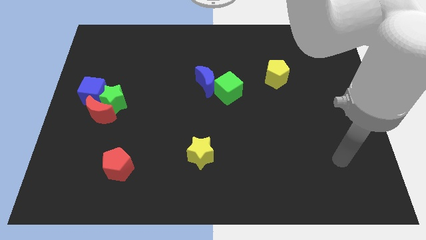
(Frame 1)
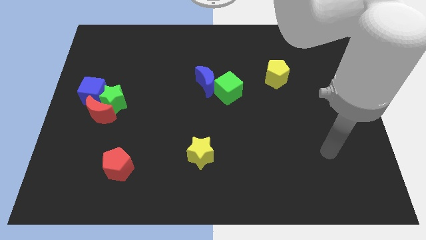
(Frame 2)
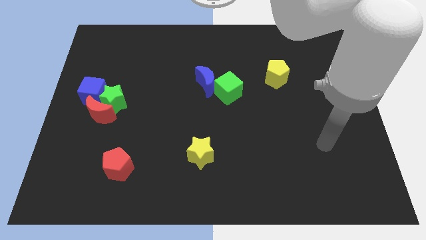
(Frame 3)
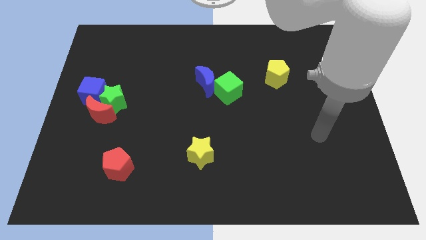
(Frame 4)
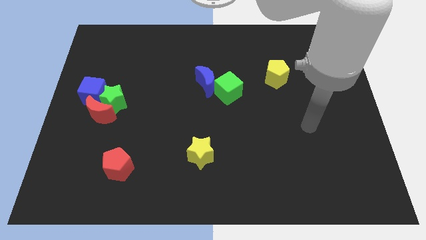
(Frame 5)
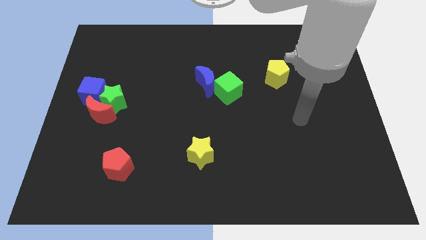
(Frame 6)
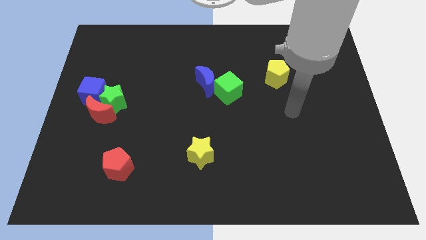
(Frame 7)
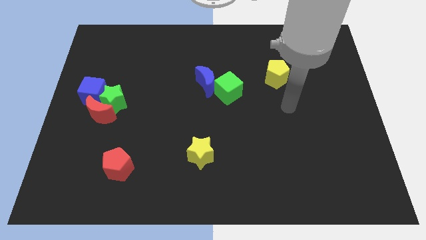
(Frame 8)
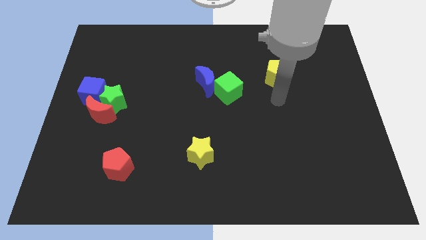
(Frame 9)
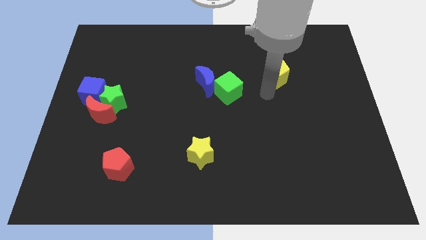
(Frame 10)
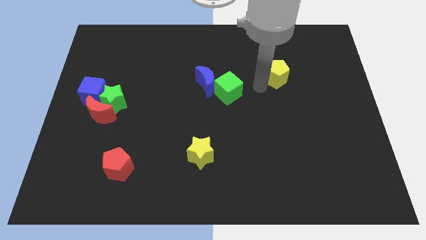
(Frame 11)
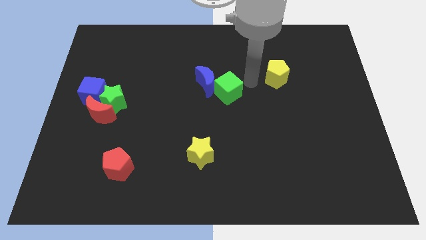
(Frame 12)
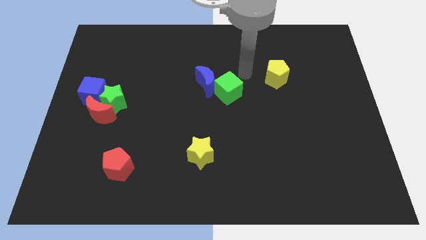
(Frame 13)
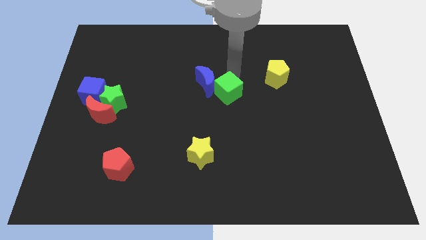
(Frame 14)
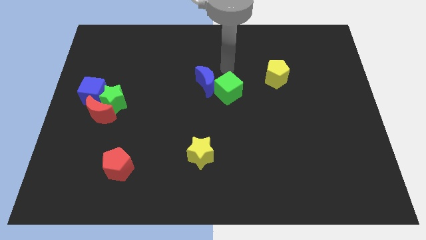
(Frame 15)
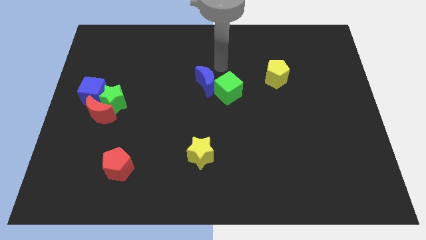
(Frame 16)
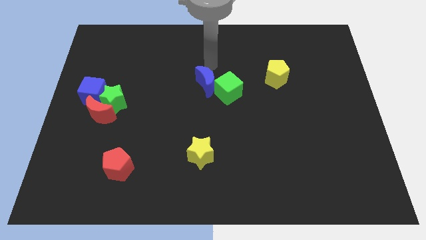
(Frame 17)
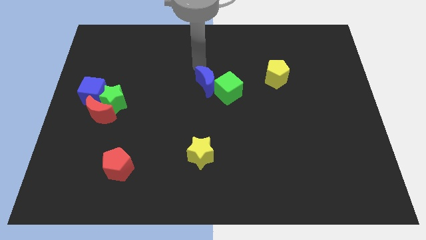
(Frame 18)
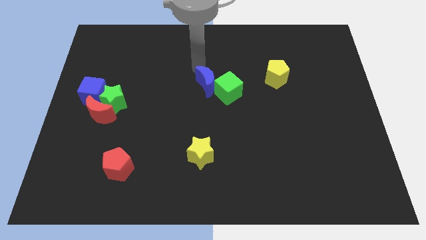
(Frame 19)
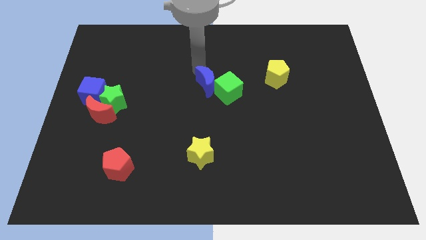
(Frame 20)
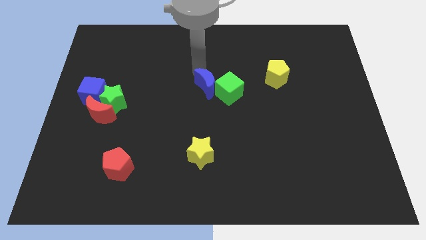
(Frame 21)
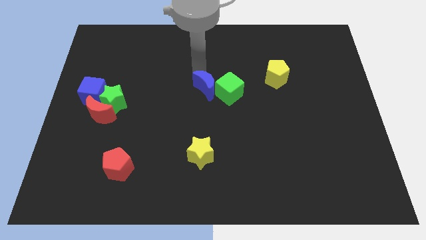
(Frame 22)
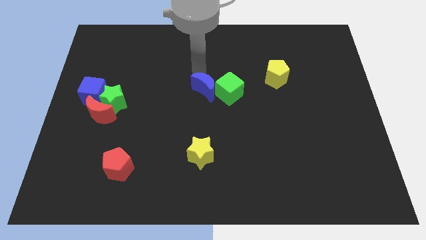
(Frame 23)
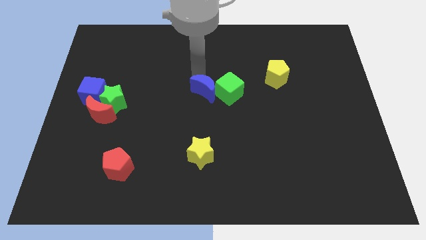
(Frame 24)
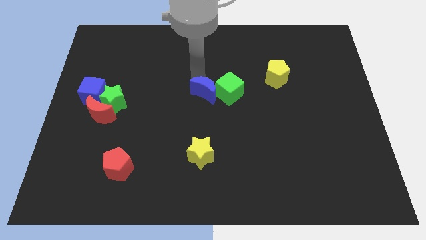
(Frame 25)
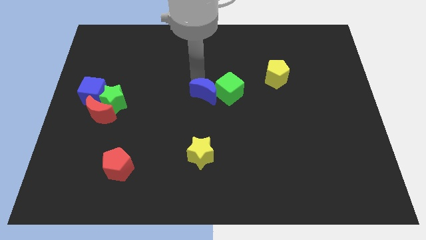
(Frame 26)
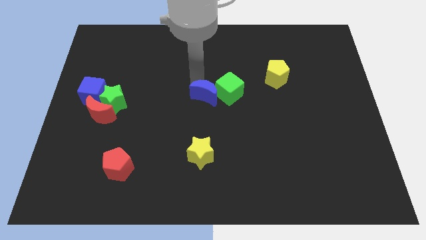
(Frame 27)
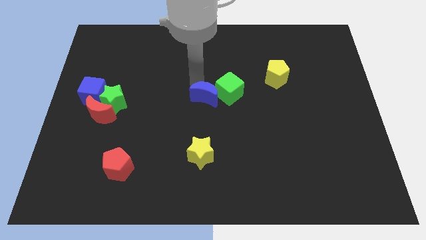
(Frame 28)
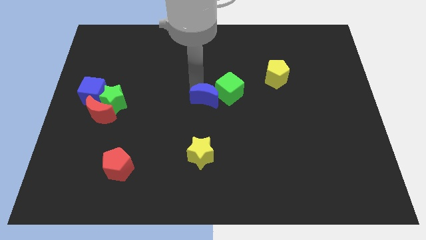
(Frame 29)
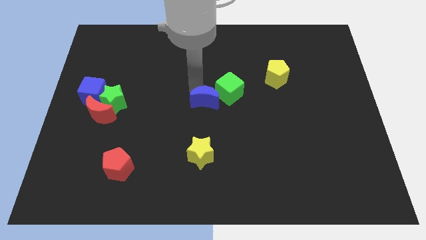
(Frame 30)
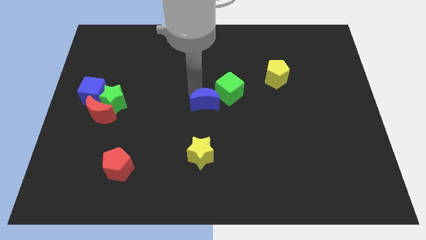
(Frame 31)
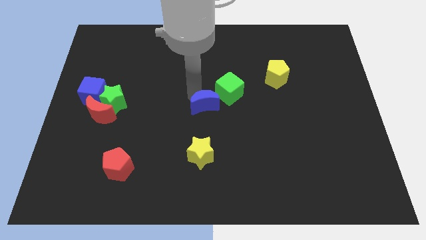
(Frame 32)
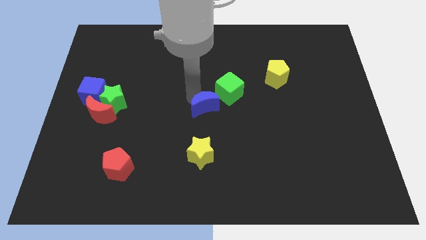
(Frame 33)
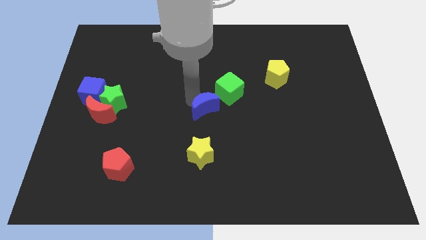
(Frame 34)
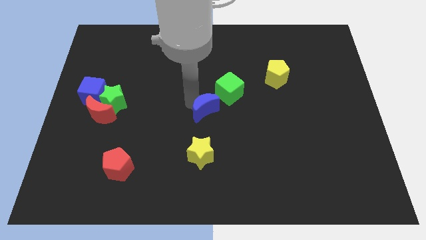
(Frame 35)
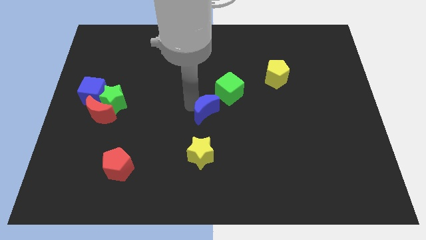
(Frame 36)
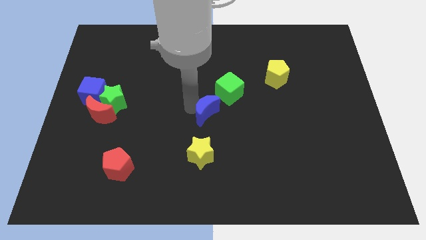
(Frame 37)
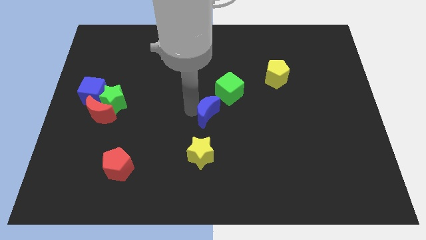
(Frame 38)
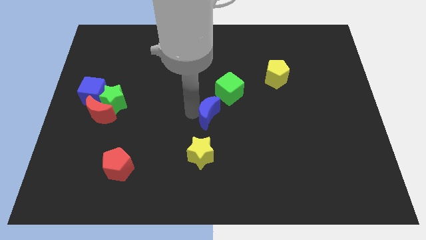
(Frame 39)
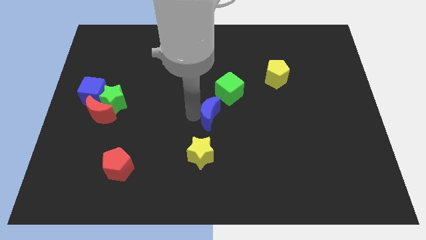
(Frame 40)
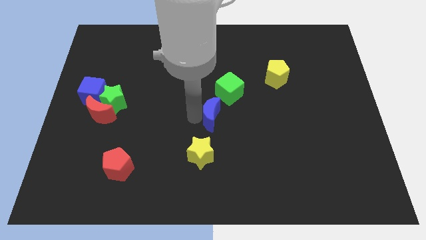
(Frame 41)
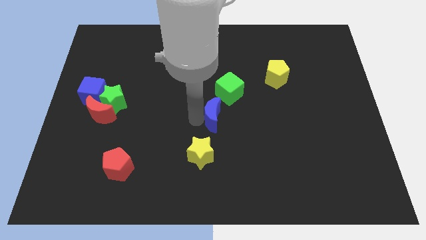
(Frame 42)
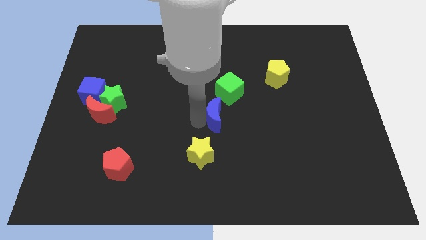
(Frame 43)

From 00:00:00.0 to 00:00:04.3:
move the blue moon down and right a little bit

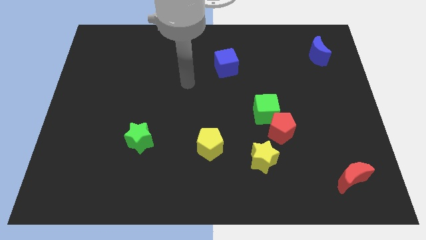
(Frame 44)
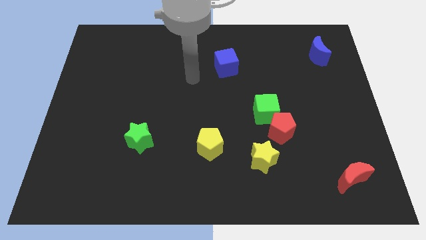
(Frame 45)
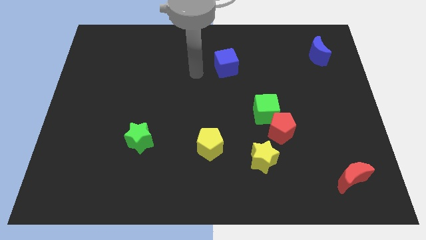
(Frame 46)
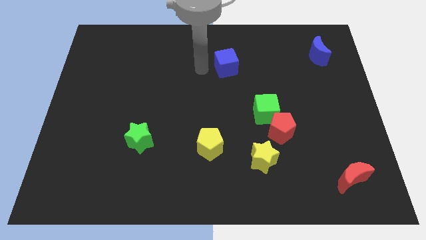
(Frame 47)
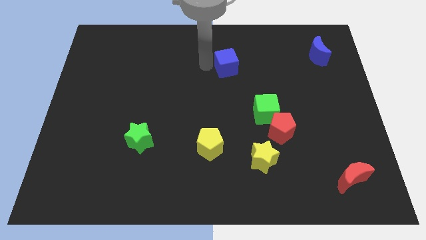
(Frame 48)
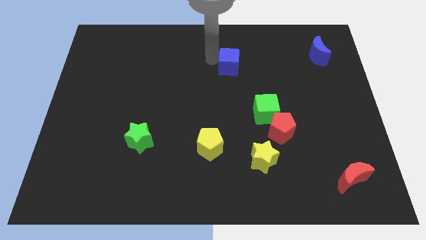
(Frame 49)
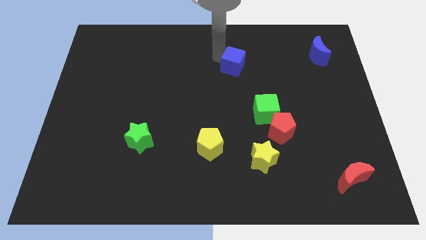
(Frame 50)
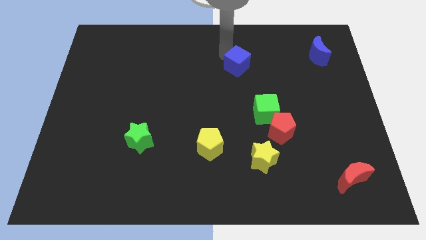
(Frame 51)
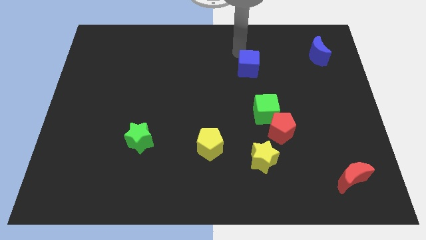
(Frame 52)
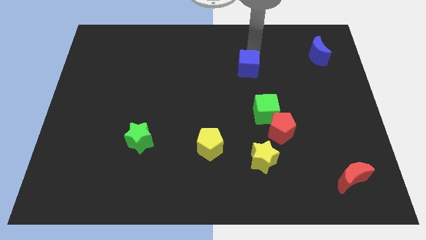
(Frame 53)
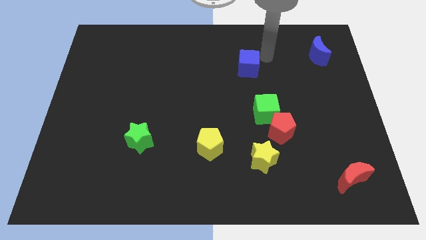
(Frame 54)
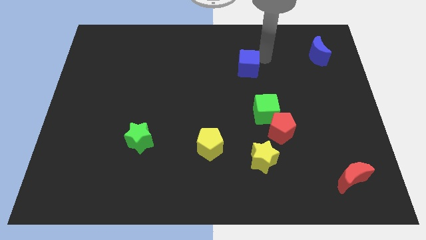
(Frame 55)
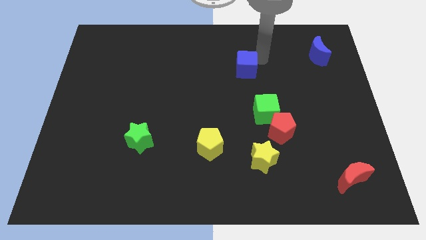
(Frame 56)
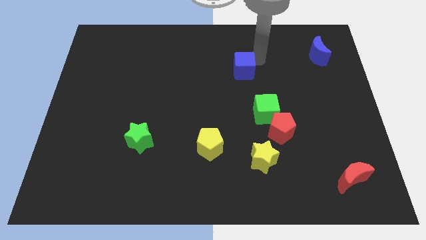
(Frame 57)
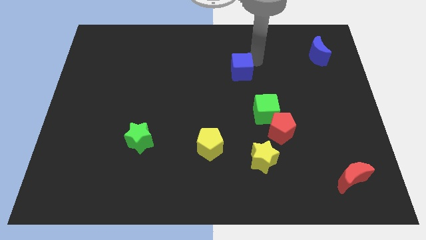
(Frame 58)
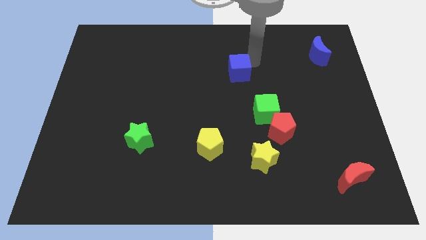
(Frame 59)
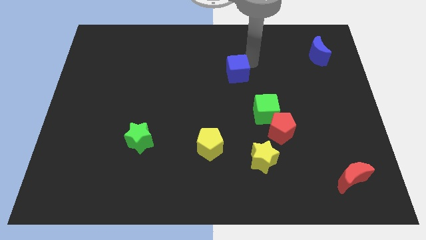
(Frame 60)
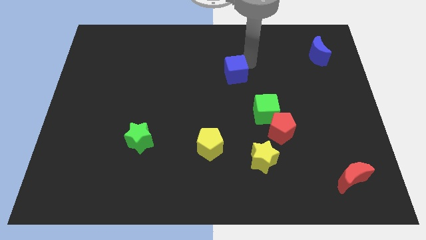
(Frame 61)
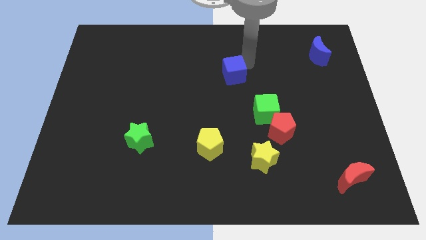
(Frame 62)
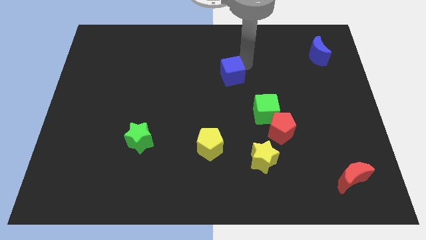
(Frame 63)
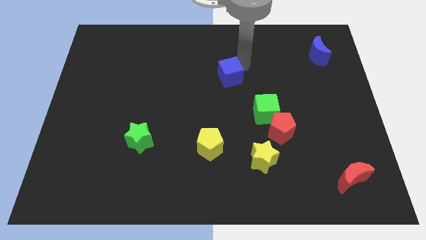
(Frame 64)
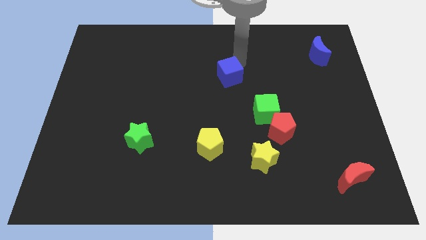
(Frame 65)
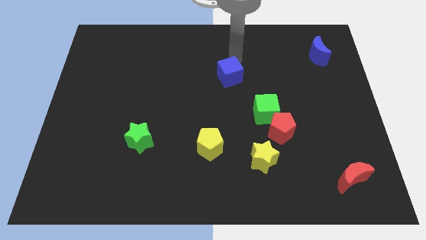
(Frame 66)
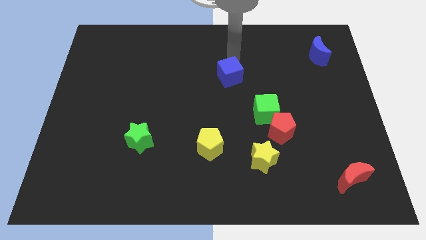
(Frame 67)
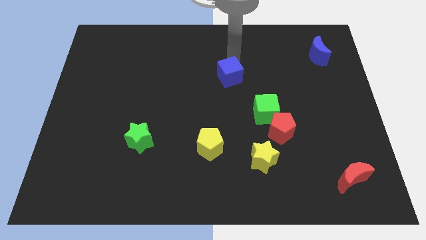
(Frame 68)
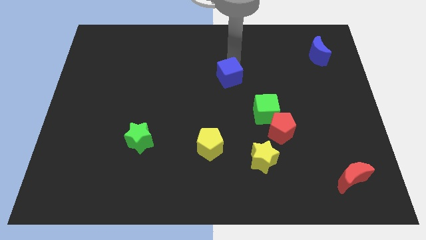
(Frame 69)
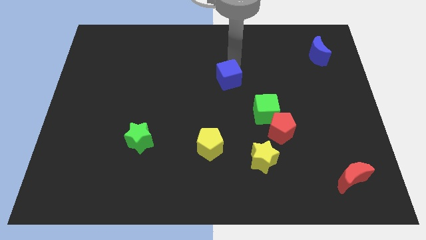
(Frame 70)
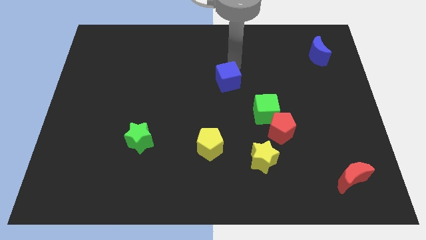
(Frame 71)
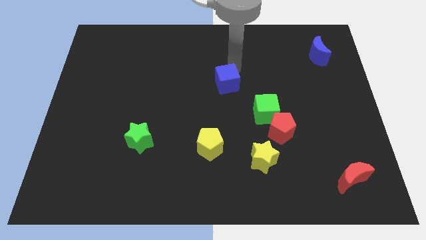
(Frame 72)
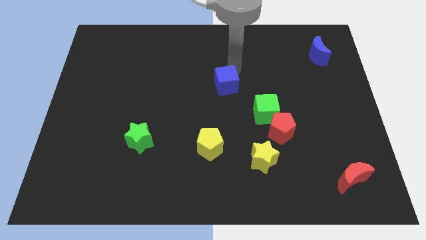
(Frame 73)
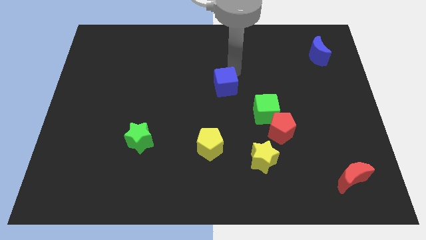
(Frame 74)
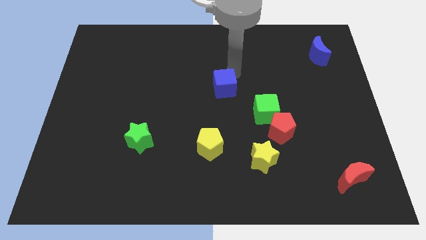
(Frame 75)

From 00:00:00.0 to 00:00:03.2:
slightly slide the blue cube down

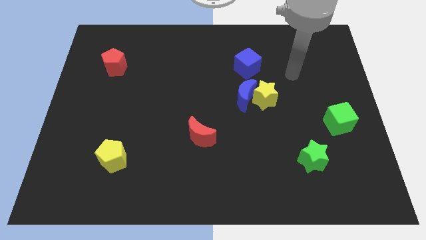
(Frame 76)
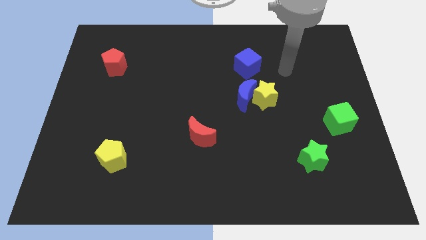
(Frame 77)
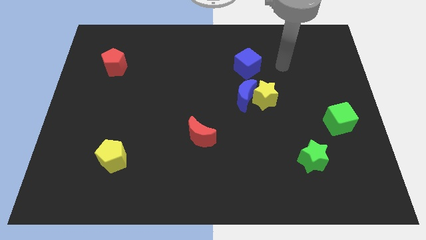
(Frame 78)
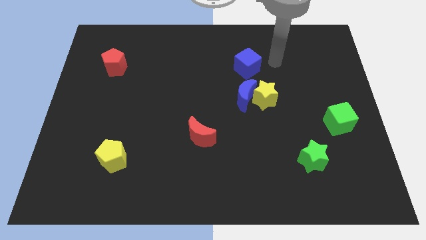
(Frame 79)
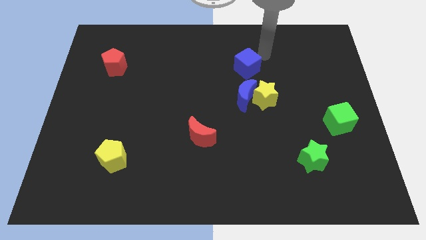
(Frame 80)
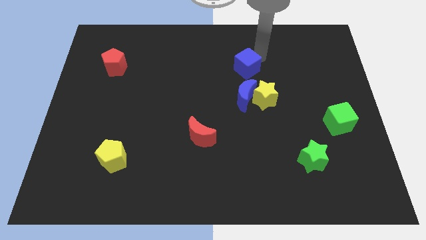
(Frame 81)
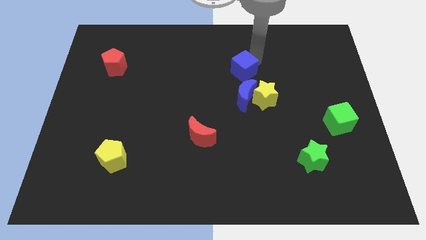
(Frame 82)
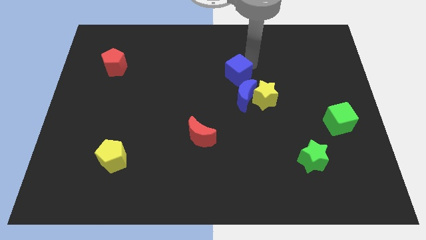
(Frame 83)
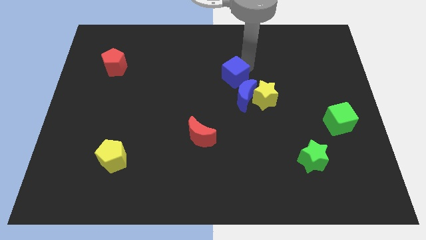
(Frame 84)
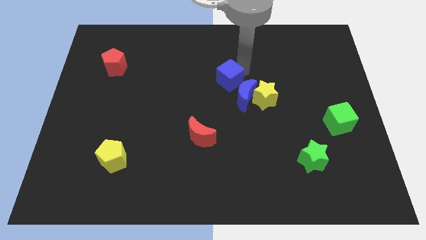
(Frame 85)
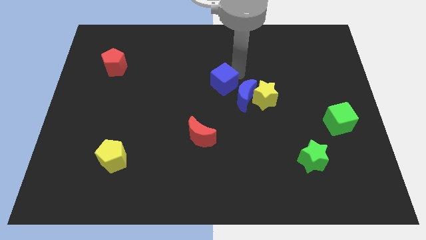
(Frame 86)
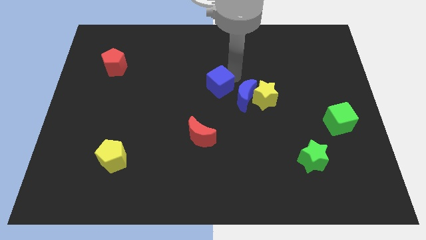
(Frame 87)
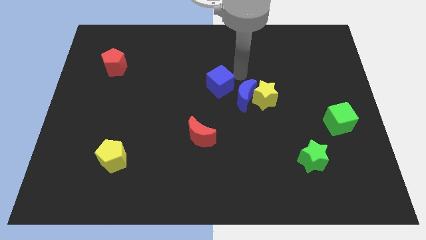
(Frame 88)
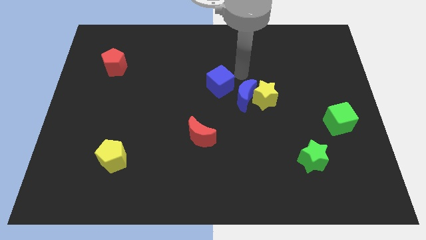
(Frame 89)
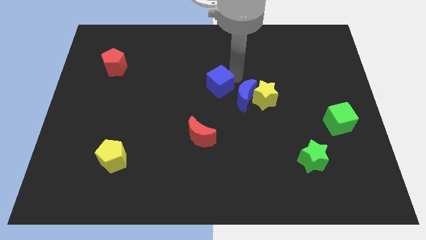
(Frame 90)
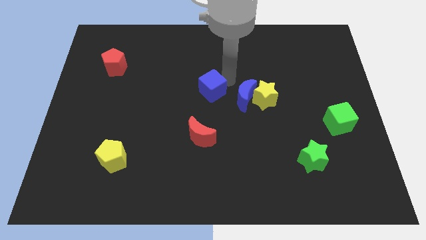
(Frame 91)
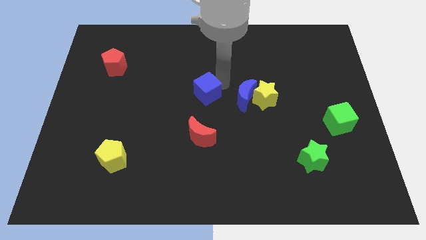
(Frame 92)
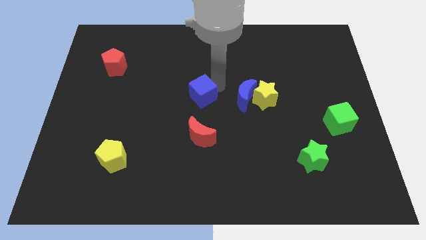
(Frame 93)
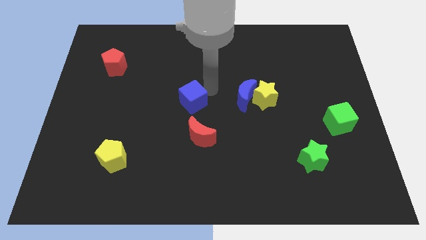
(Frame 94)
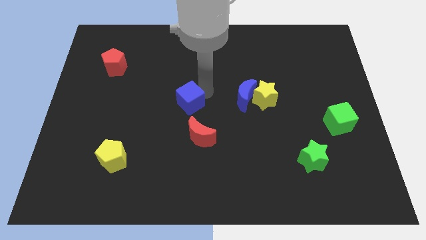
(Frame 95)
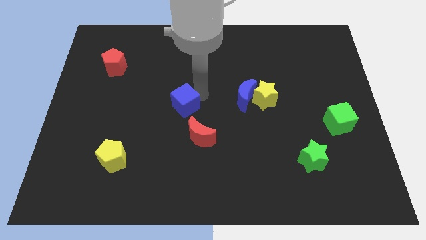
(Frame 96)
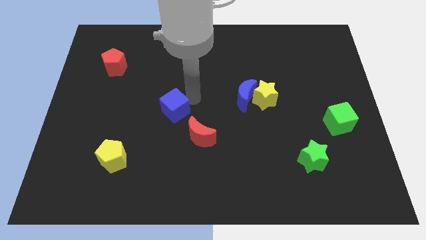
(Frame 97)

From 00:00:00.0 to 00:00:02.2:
slide the blue cube down and to the left
